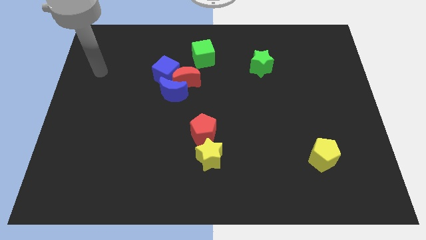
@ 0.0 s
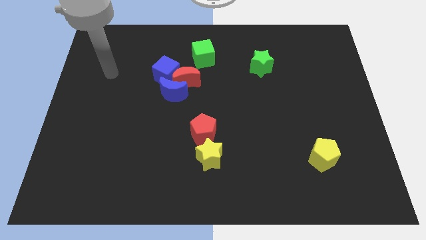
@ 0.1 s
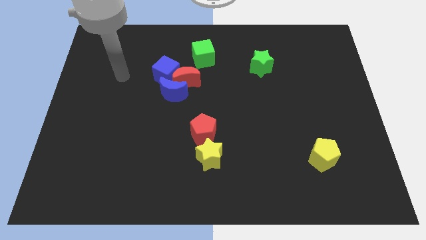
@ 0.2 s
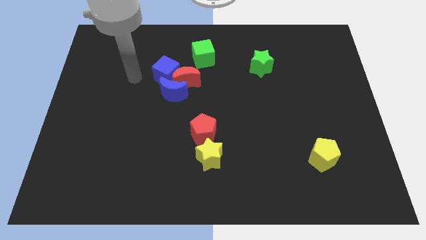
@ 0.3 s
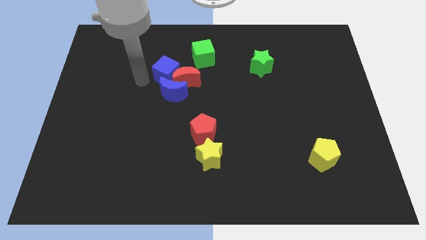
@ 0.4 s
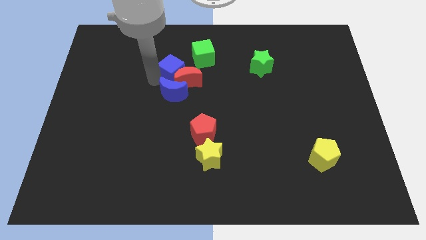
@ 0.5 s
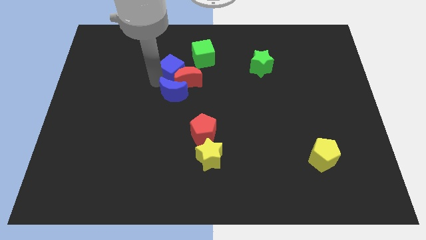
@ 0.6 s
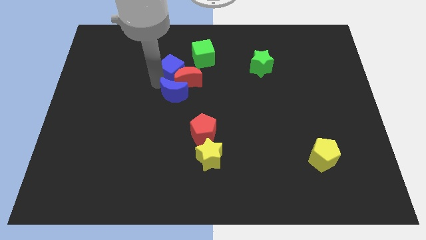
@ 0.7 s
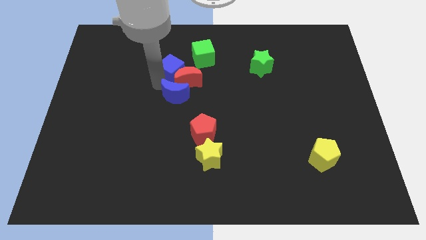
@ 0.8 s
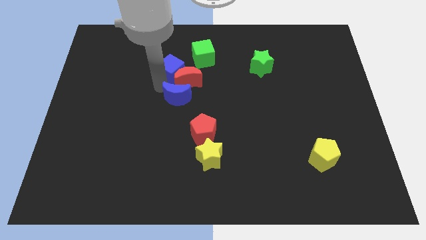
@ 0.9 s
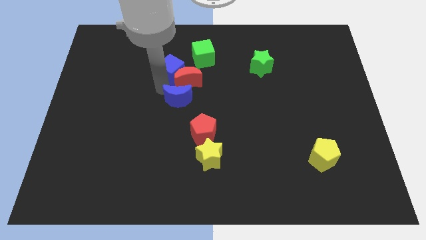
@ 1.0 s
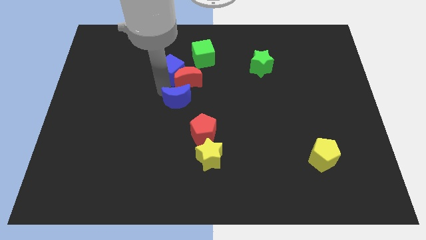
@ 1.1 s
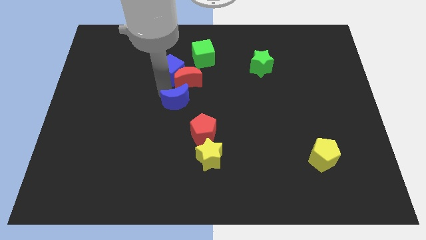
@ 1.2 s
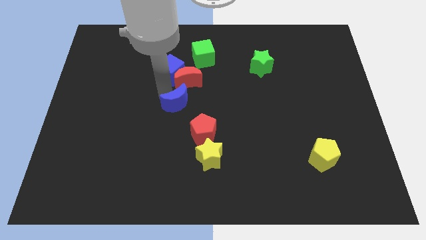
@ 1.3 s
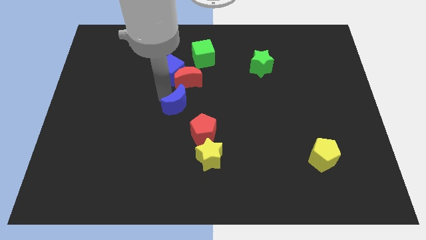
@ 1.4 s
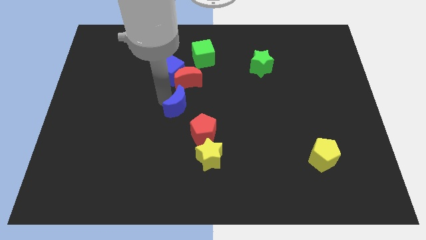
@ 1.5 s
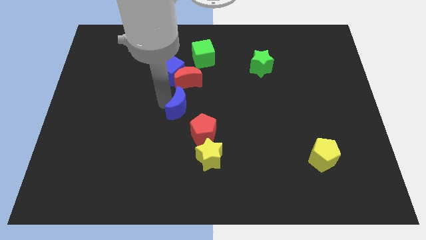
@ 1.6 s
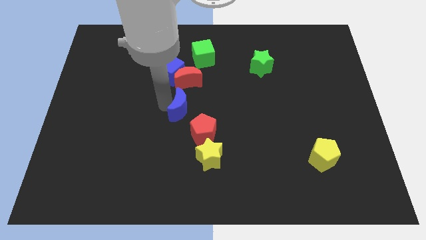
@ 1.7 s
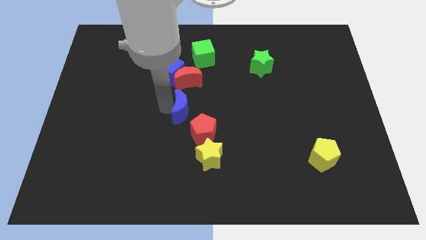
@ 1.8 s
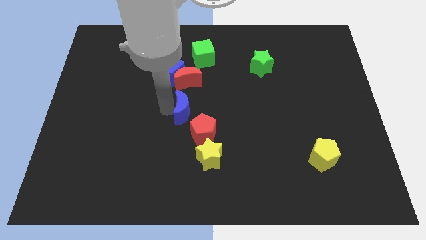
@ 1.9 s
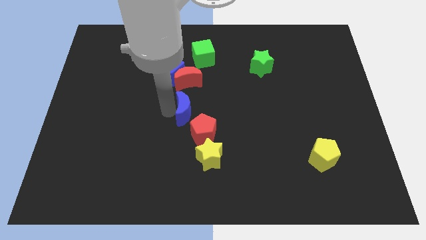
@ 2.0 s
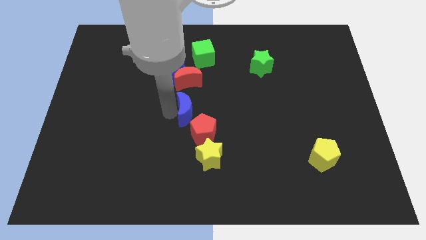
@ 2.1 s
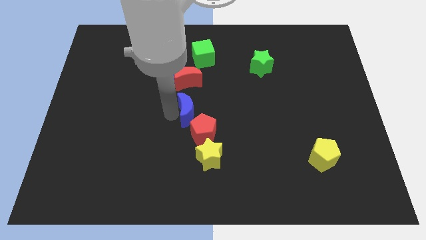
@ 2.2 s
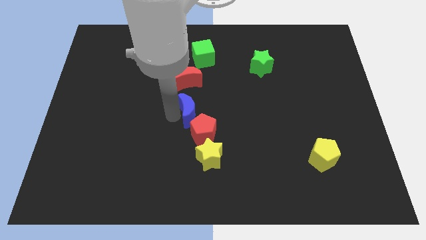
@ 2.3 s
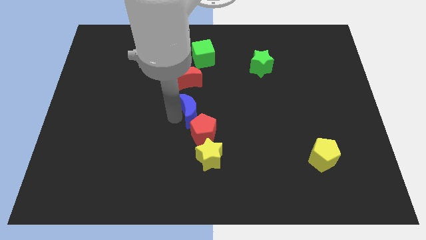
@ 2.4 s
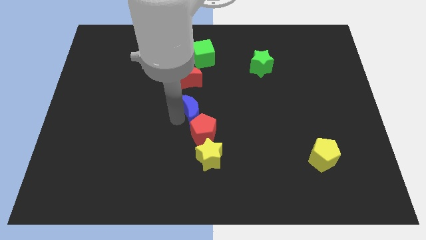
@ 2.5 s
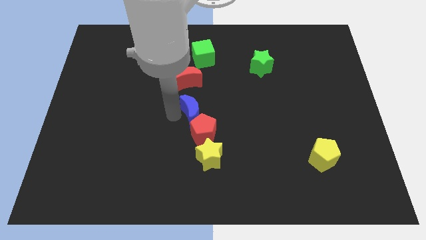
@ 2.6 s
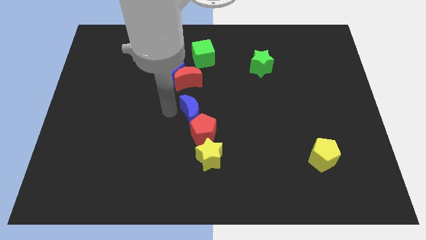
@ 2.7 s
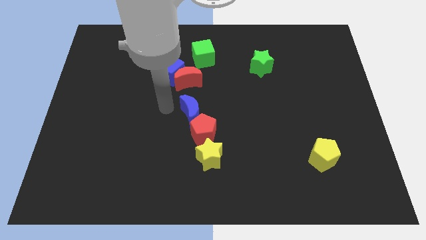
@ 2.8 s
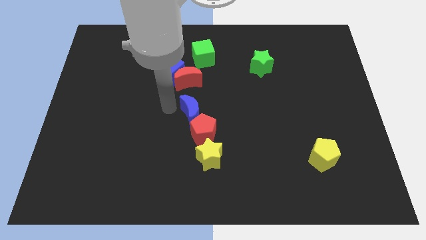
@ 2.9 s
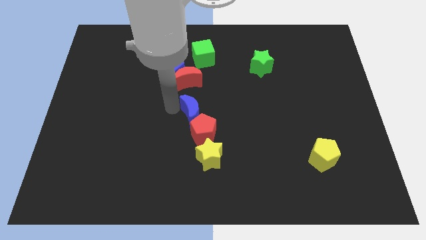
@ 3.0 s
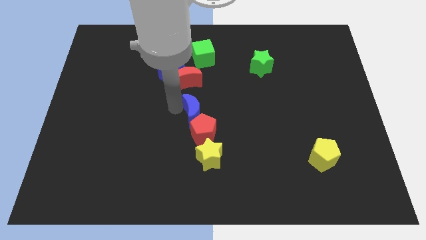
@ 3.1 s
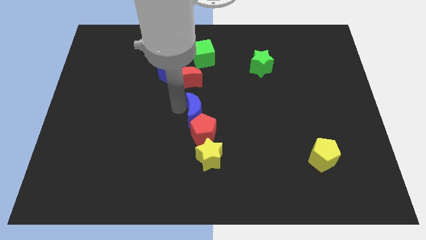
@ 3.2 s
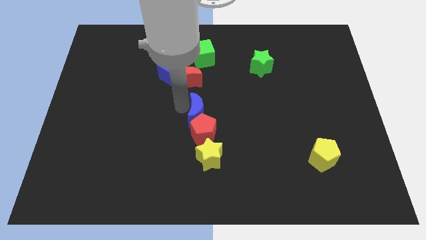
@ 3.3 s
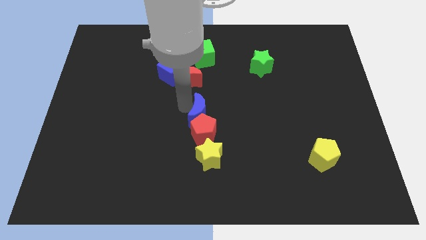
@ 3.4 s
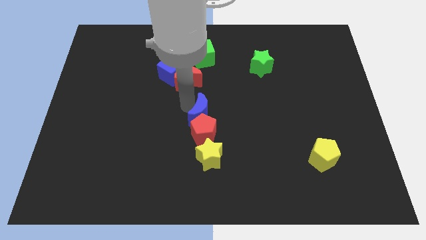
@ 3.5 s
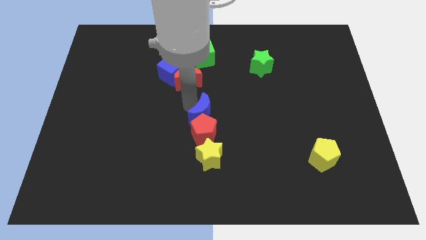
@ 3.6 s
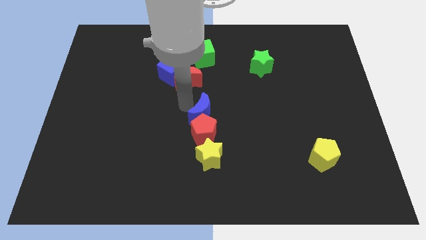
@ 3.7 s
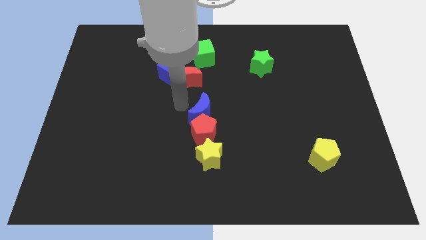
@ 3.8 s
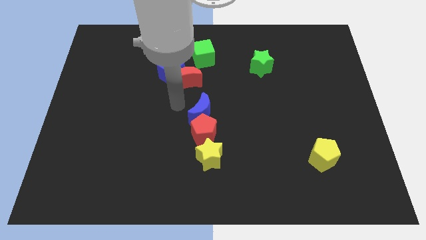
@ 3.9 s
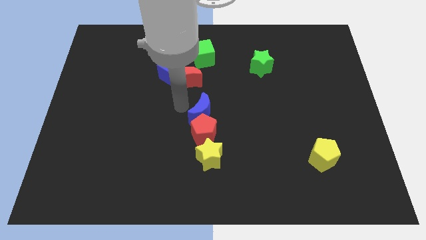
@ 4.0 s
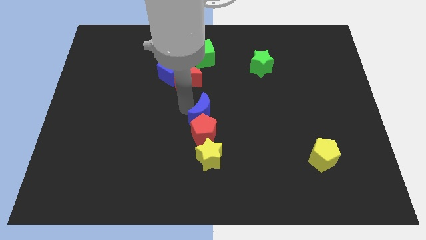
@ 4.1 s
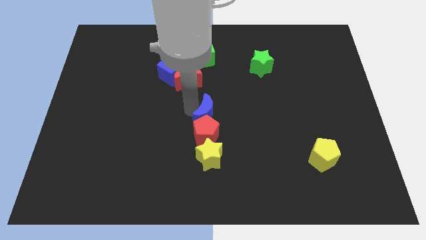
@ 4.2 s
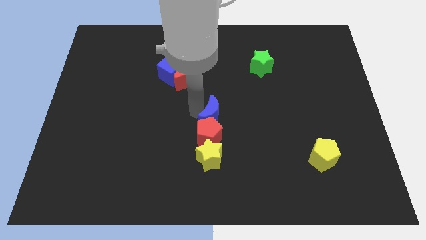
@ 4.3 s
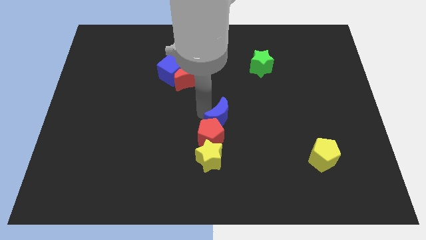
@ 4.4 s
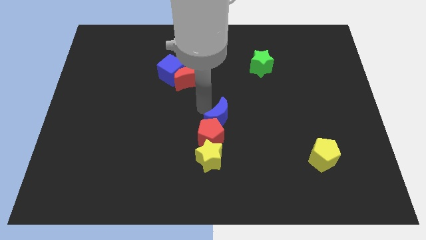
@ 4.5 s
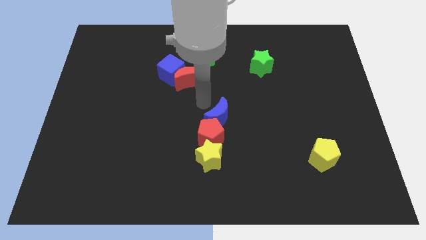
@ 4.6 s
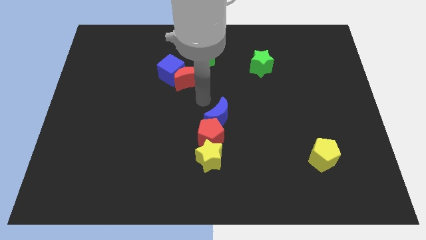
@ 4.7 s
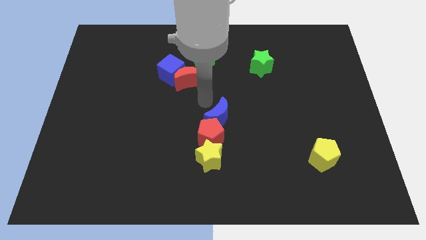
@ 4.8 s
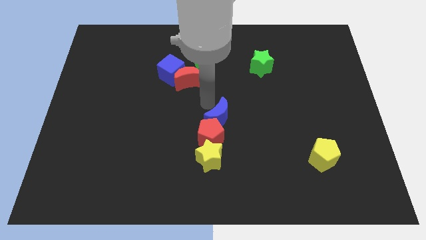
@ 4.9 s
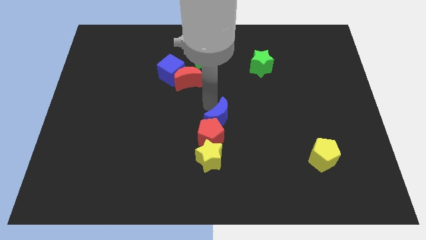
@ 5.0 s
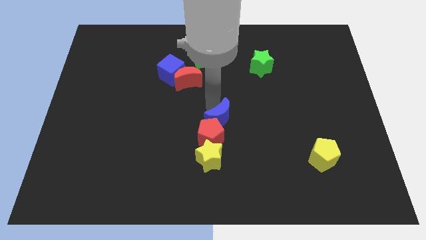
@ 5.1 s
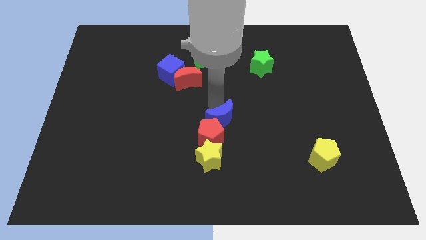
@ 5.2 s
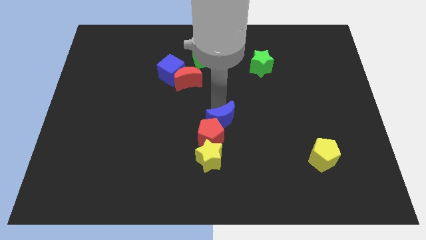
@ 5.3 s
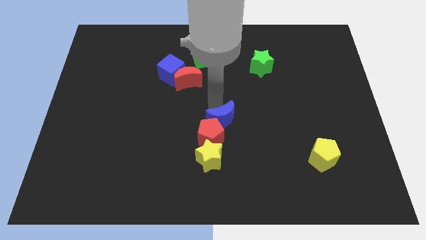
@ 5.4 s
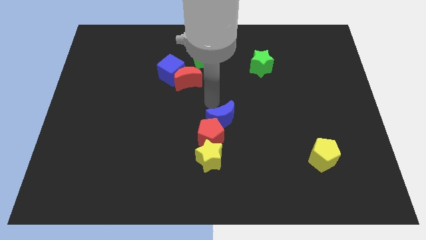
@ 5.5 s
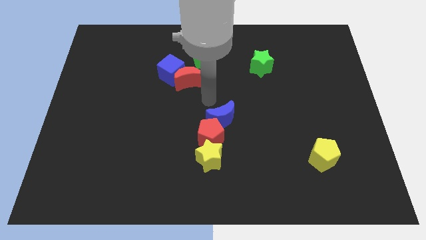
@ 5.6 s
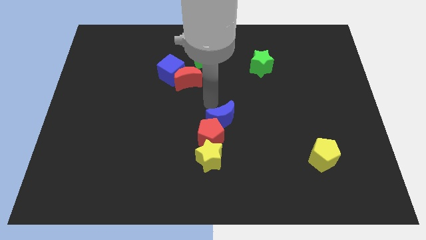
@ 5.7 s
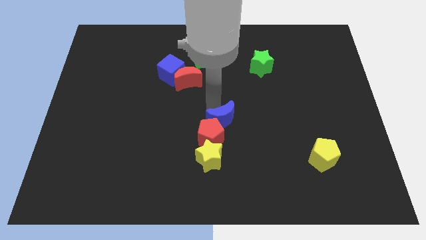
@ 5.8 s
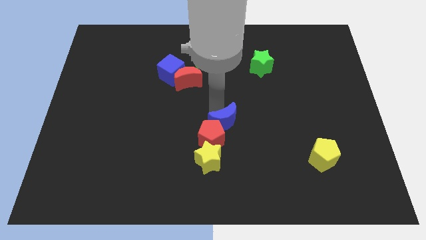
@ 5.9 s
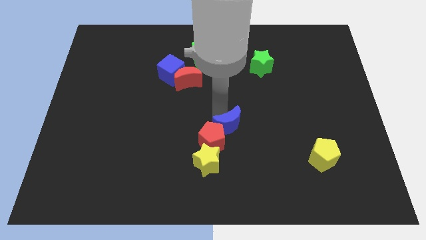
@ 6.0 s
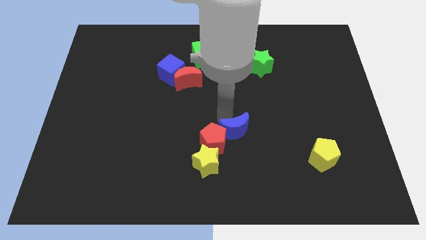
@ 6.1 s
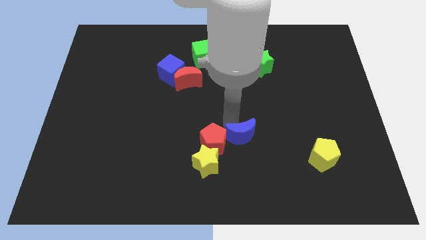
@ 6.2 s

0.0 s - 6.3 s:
move the blue moon down and to the right diagonally

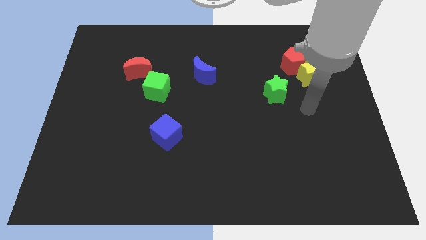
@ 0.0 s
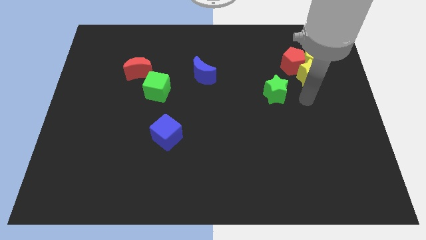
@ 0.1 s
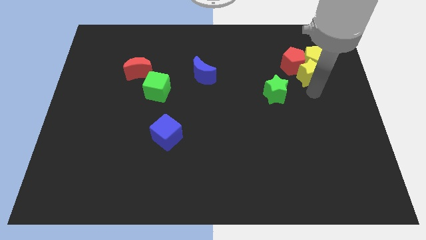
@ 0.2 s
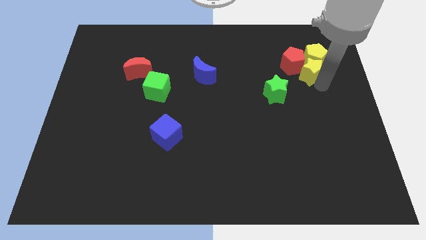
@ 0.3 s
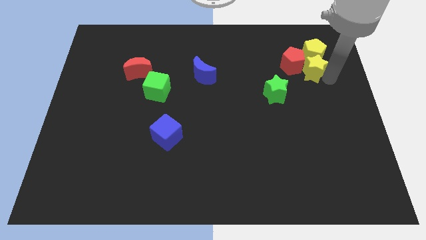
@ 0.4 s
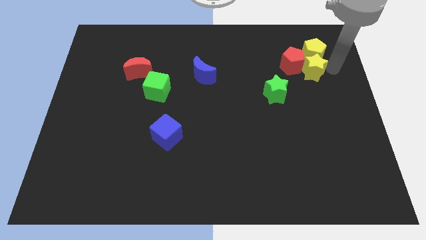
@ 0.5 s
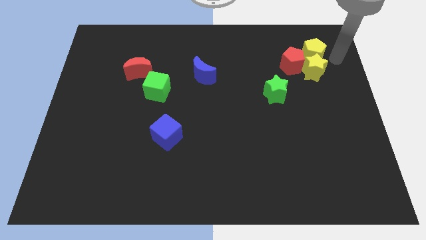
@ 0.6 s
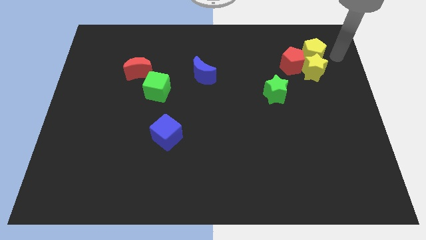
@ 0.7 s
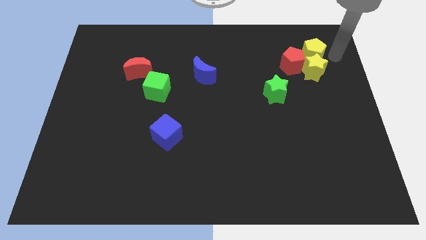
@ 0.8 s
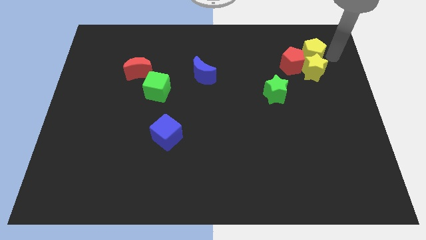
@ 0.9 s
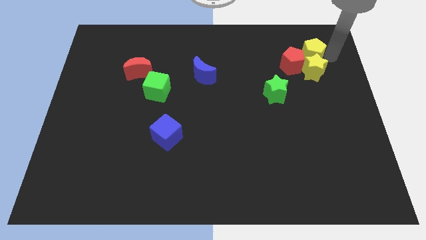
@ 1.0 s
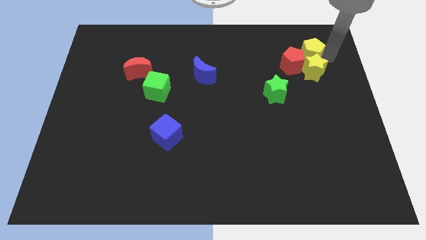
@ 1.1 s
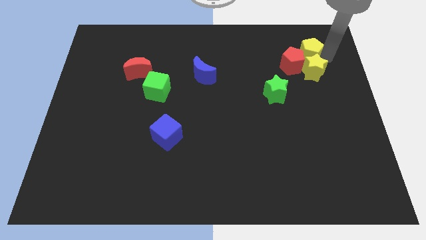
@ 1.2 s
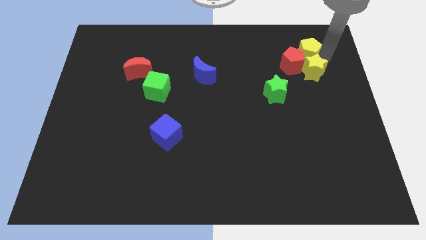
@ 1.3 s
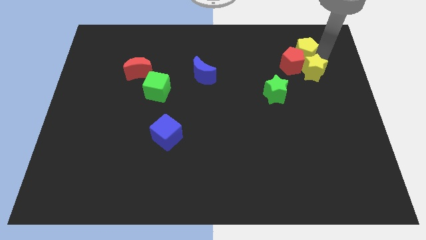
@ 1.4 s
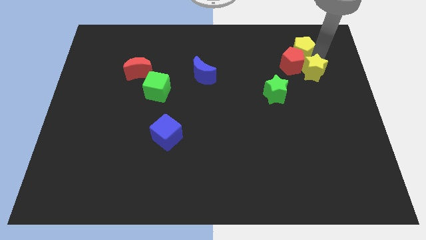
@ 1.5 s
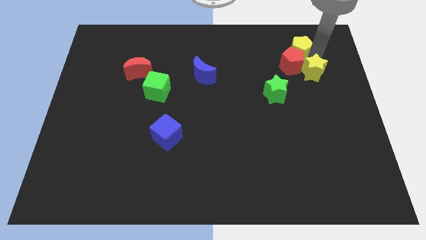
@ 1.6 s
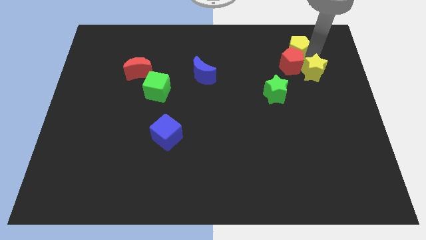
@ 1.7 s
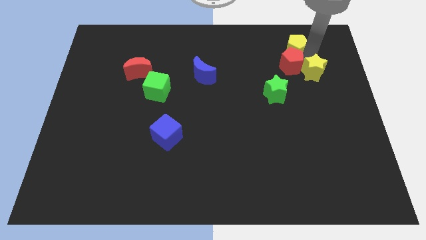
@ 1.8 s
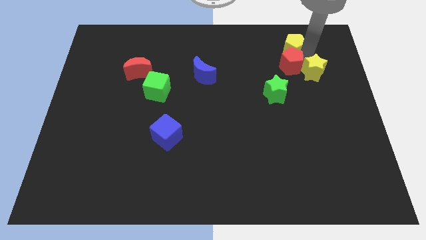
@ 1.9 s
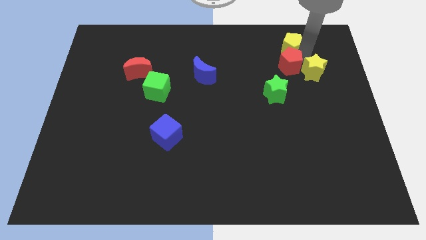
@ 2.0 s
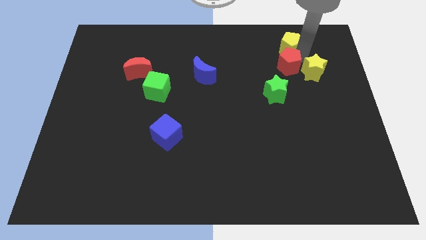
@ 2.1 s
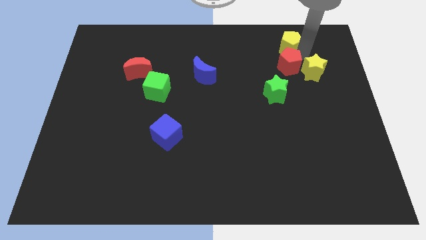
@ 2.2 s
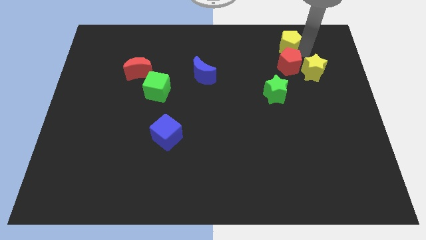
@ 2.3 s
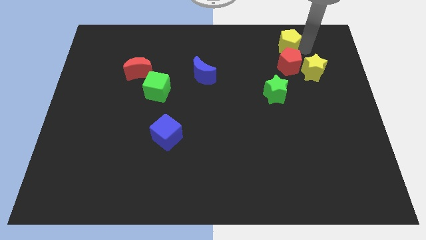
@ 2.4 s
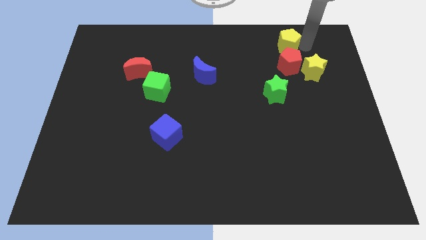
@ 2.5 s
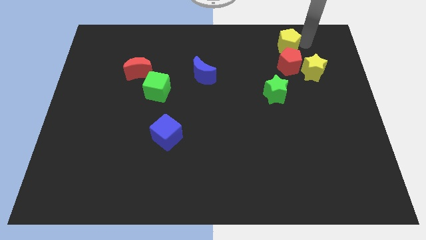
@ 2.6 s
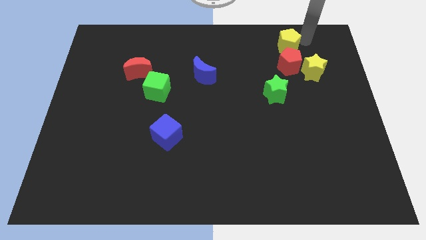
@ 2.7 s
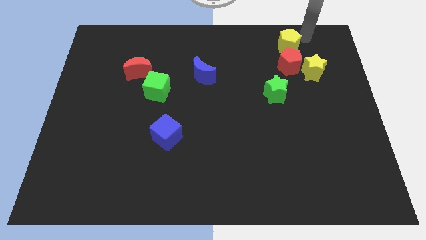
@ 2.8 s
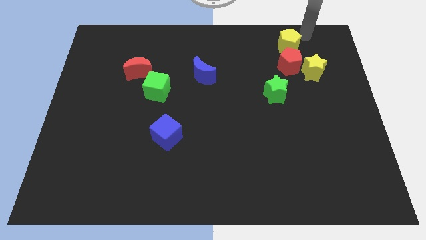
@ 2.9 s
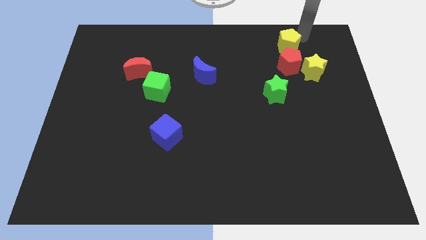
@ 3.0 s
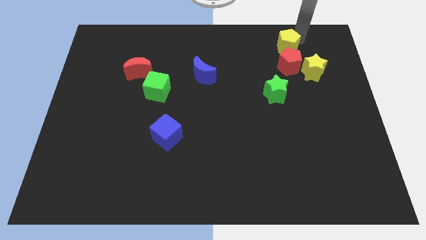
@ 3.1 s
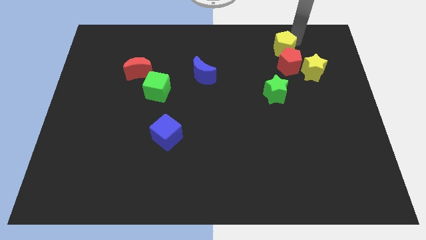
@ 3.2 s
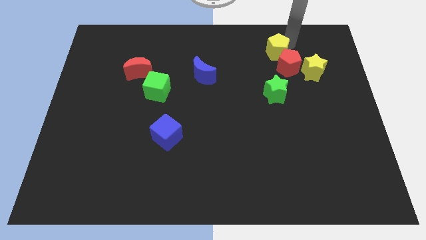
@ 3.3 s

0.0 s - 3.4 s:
slightly move the yellow pentagon left
